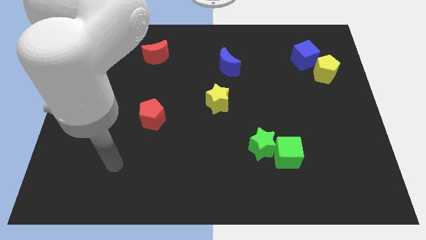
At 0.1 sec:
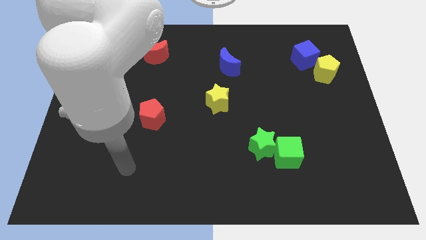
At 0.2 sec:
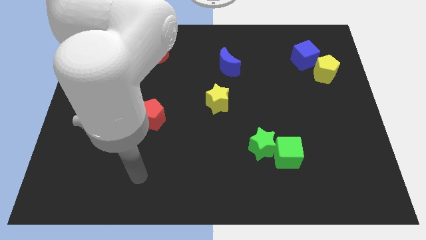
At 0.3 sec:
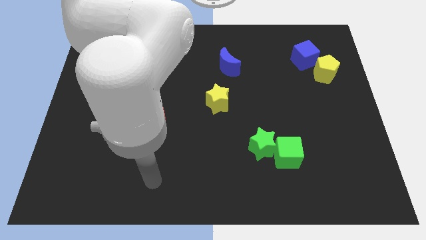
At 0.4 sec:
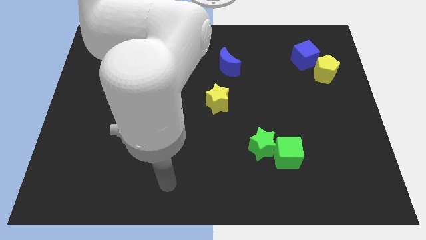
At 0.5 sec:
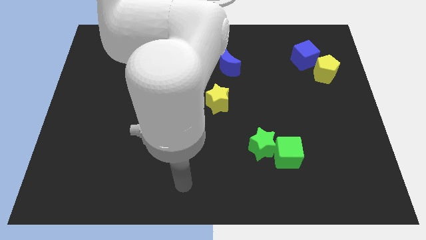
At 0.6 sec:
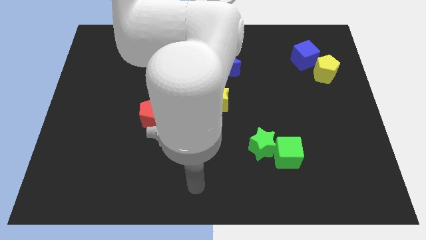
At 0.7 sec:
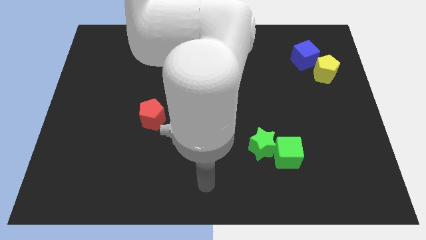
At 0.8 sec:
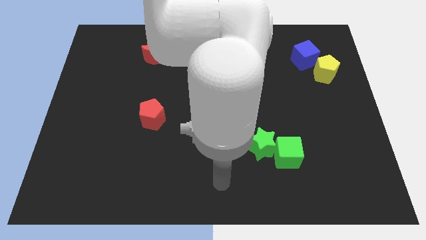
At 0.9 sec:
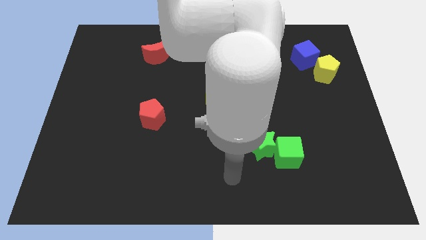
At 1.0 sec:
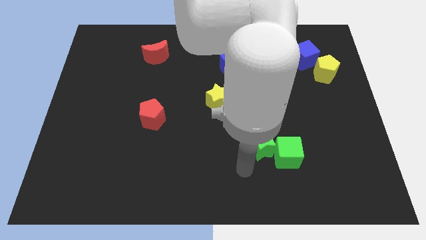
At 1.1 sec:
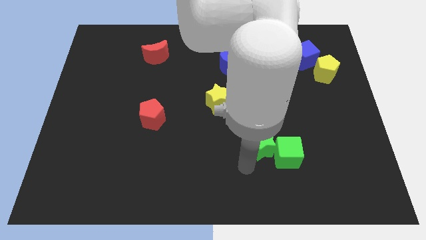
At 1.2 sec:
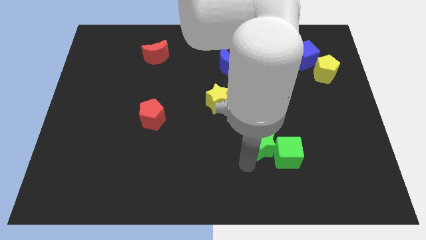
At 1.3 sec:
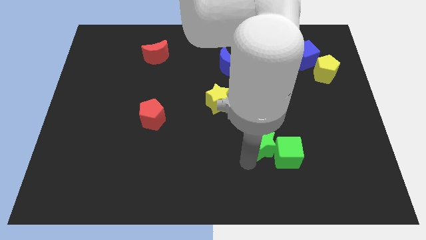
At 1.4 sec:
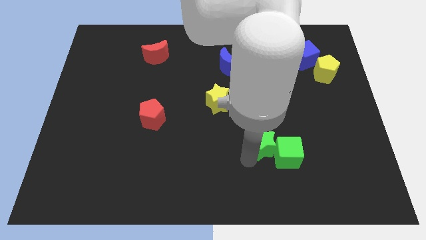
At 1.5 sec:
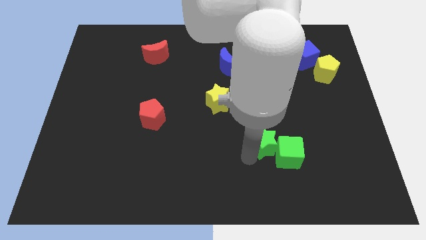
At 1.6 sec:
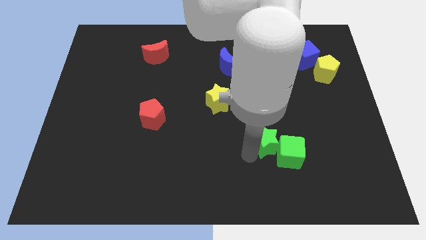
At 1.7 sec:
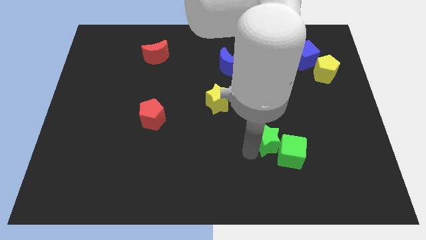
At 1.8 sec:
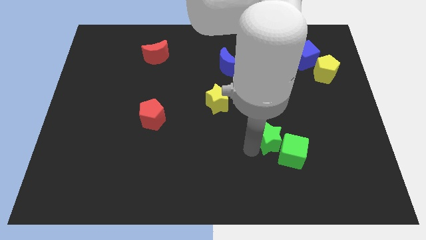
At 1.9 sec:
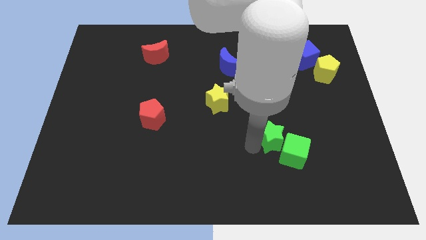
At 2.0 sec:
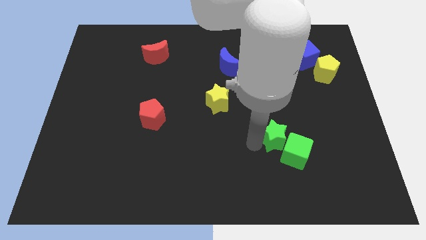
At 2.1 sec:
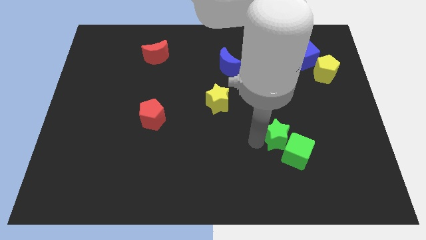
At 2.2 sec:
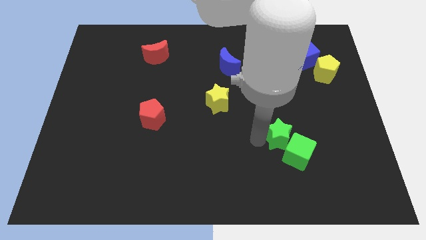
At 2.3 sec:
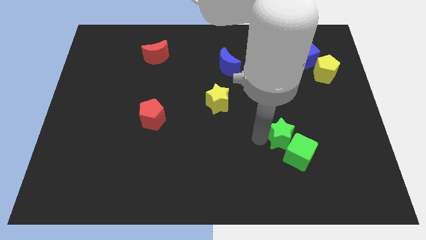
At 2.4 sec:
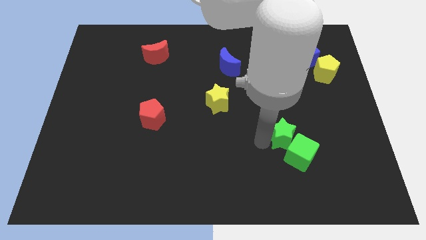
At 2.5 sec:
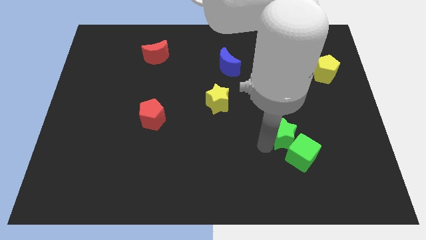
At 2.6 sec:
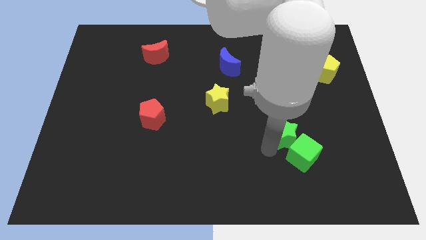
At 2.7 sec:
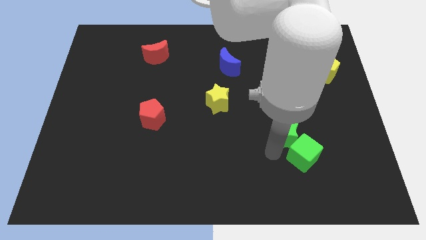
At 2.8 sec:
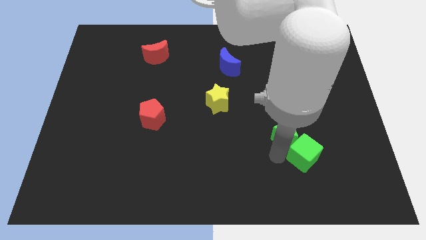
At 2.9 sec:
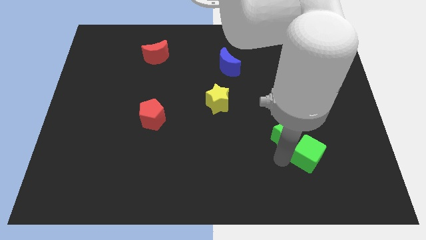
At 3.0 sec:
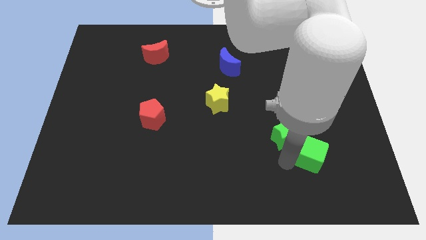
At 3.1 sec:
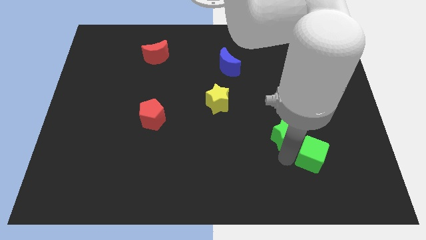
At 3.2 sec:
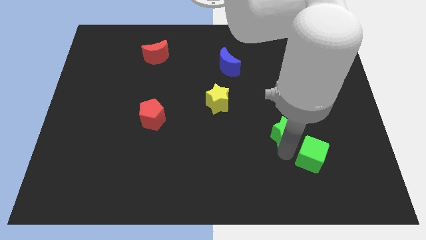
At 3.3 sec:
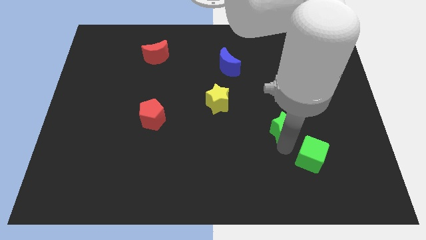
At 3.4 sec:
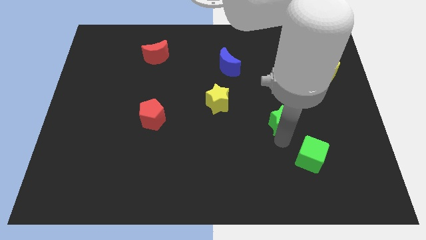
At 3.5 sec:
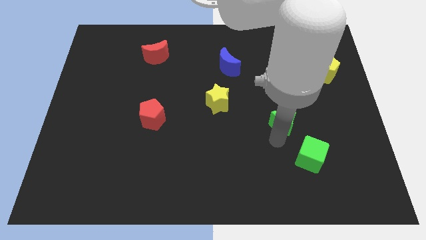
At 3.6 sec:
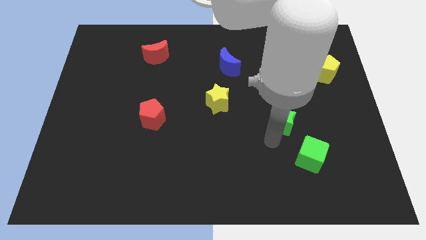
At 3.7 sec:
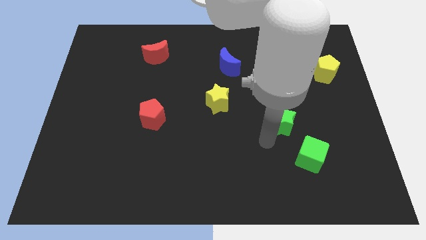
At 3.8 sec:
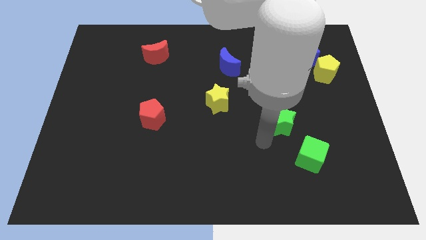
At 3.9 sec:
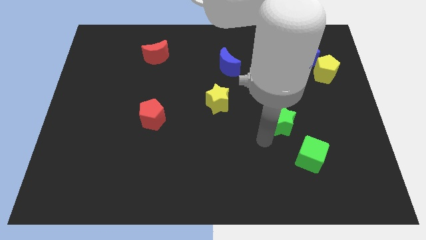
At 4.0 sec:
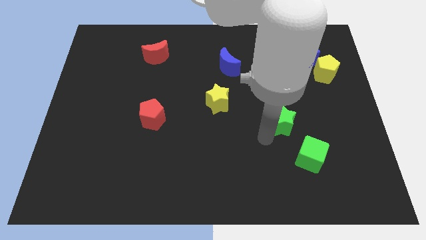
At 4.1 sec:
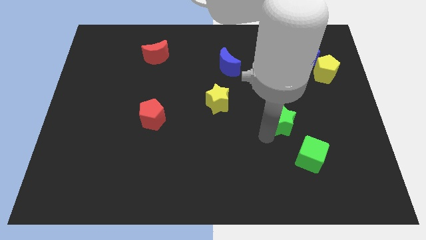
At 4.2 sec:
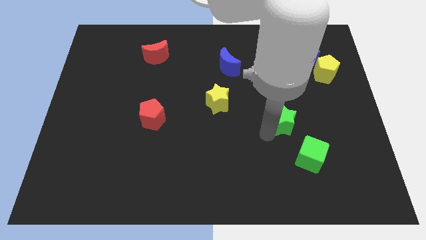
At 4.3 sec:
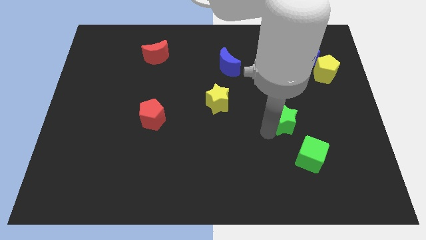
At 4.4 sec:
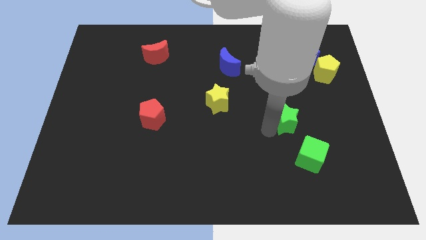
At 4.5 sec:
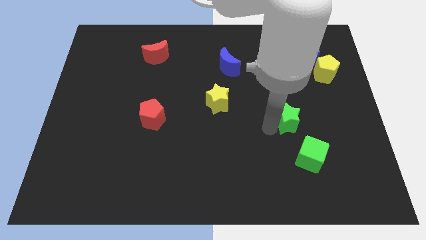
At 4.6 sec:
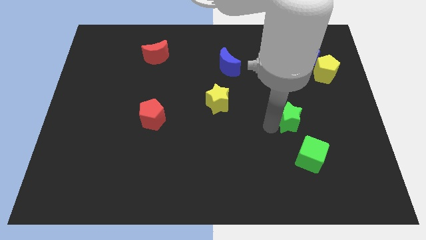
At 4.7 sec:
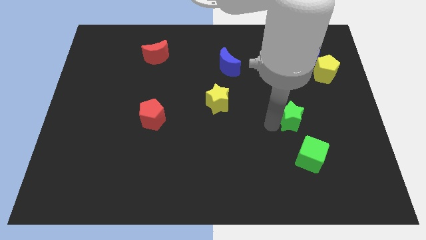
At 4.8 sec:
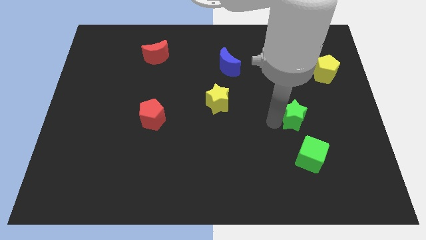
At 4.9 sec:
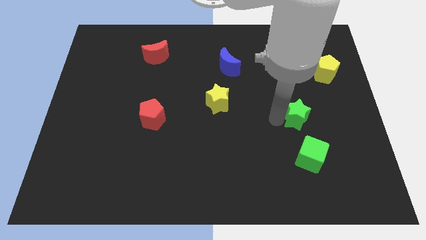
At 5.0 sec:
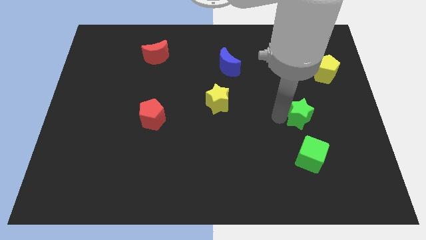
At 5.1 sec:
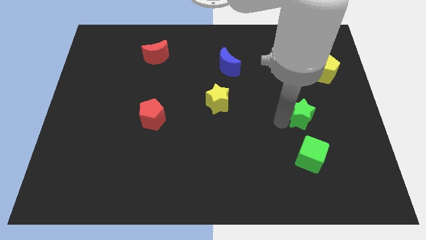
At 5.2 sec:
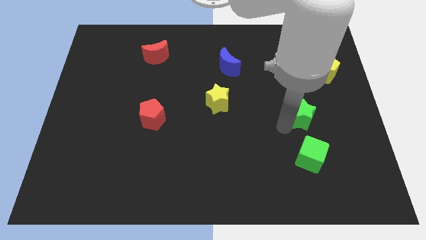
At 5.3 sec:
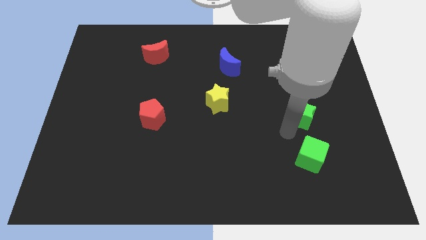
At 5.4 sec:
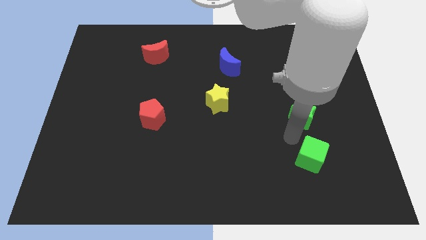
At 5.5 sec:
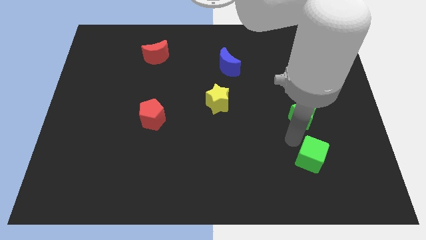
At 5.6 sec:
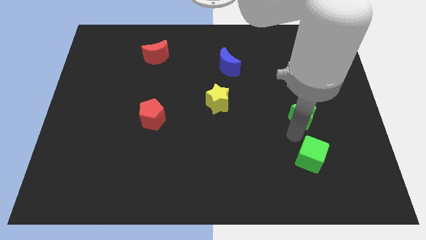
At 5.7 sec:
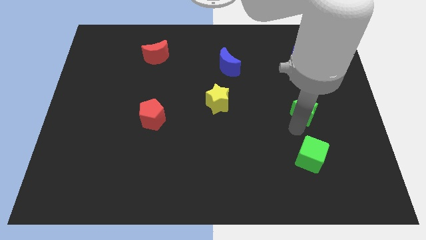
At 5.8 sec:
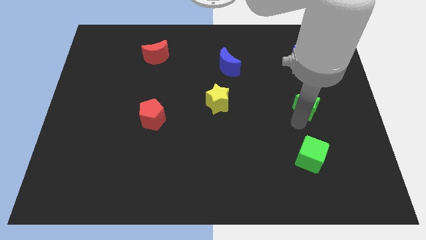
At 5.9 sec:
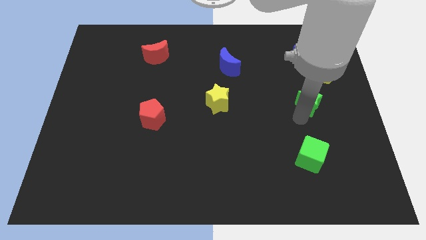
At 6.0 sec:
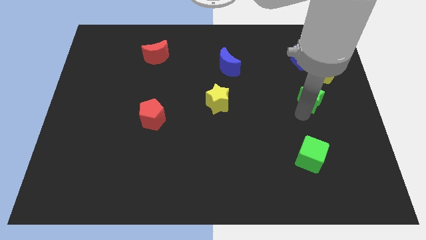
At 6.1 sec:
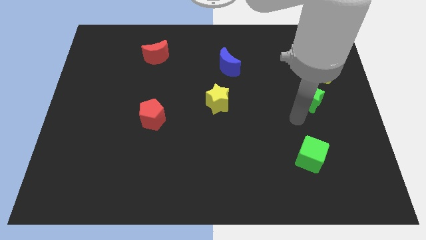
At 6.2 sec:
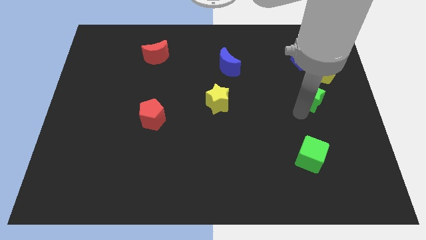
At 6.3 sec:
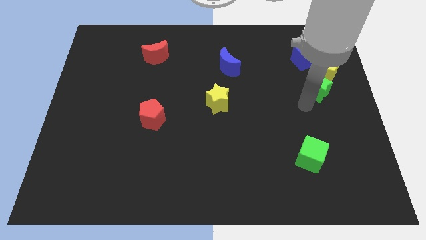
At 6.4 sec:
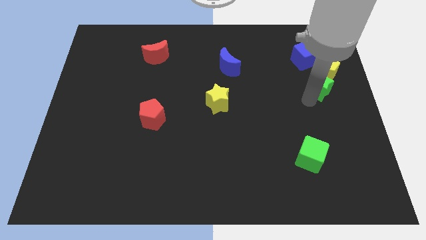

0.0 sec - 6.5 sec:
push the green star to the yellow pentagon

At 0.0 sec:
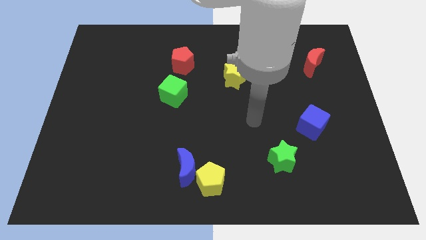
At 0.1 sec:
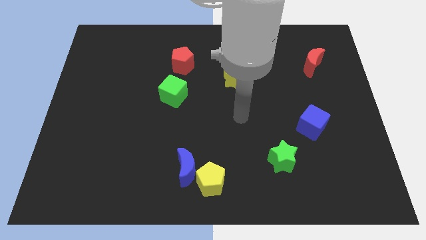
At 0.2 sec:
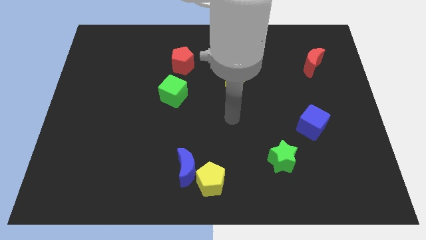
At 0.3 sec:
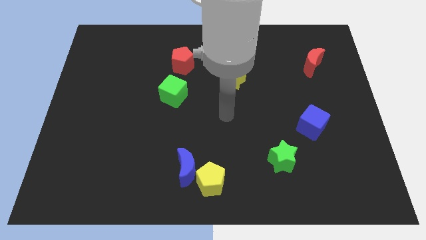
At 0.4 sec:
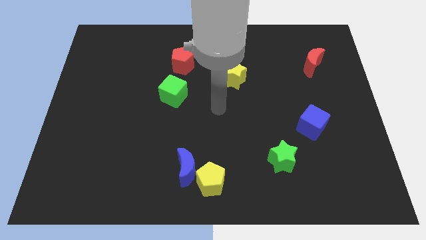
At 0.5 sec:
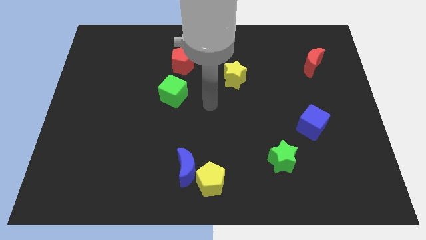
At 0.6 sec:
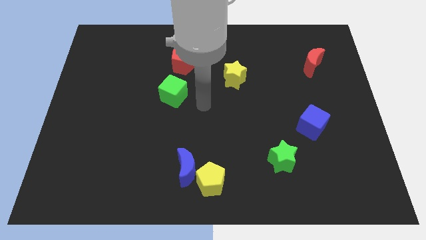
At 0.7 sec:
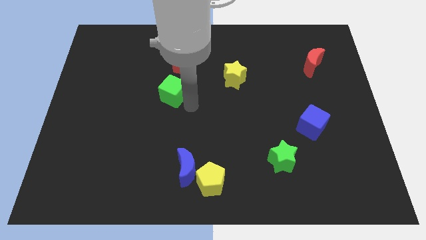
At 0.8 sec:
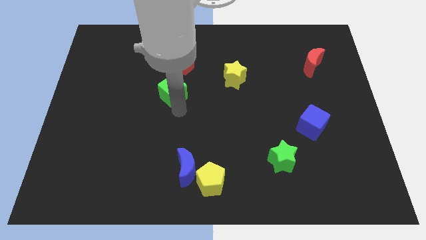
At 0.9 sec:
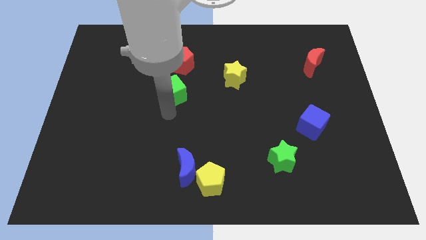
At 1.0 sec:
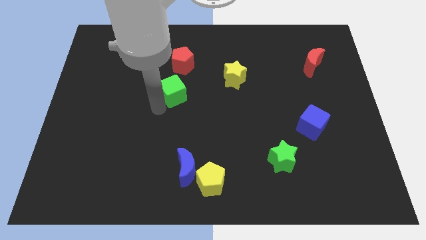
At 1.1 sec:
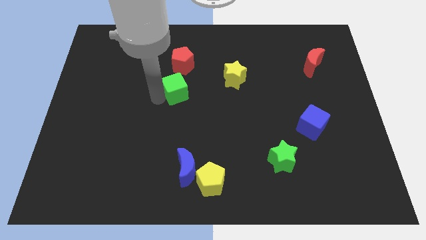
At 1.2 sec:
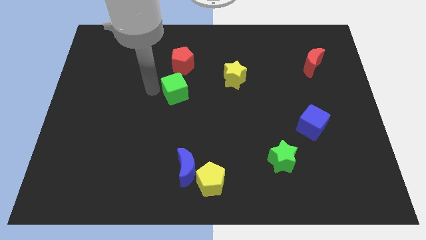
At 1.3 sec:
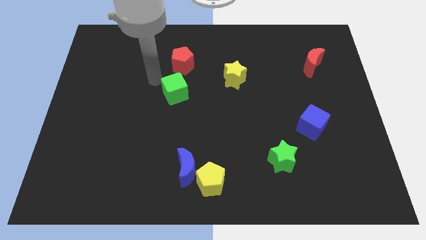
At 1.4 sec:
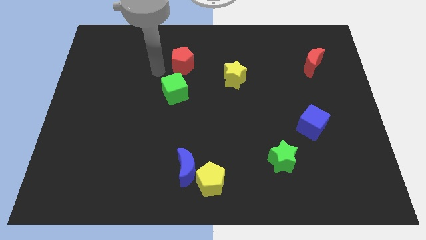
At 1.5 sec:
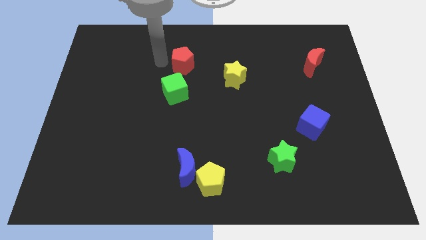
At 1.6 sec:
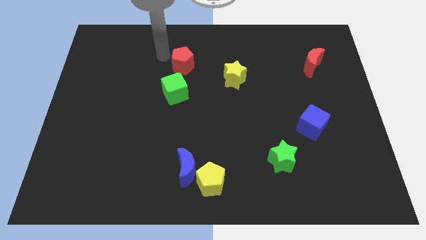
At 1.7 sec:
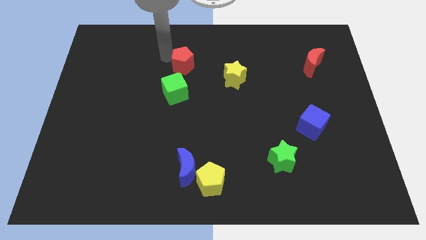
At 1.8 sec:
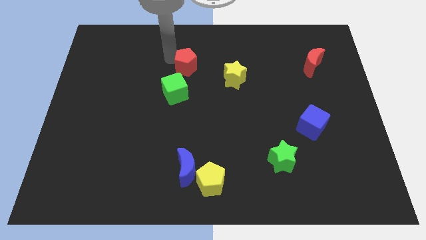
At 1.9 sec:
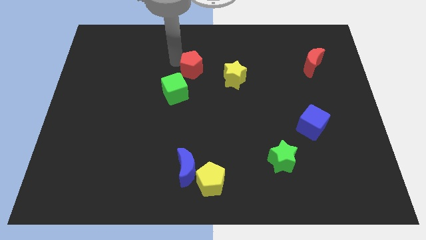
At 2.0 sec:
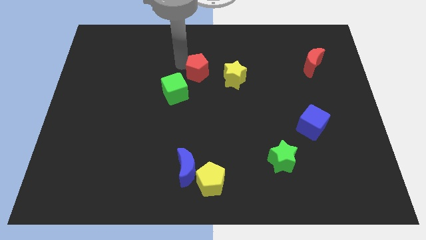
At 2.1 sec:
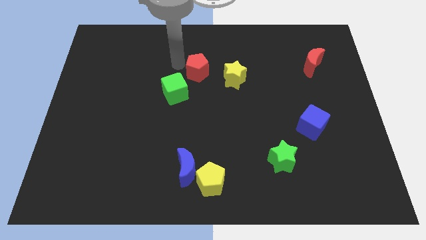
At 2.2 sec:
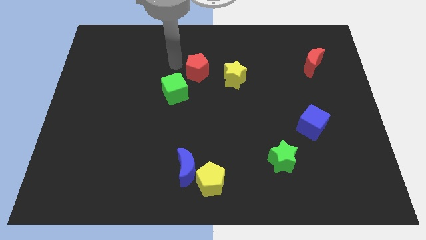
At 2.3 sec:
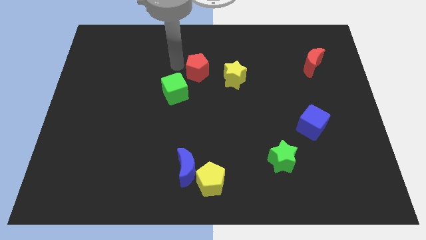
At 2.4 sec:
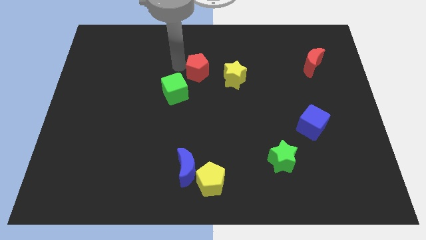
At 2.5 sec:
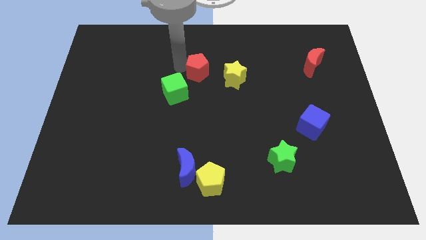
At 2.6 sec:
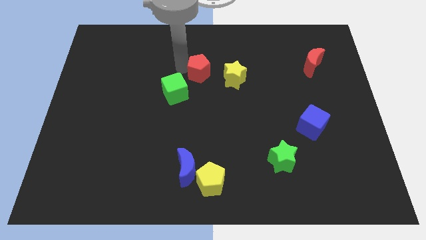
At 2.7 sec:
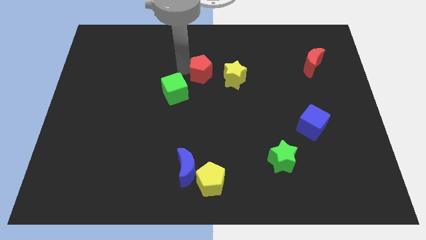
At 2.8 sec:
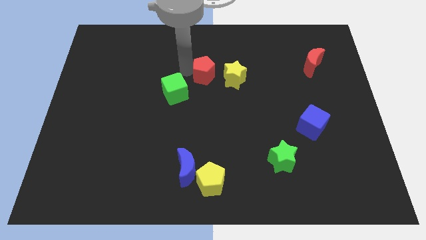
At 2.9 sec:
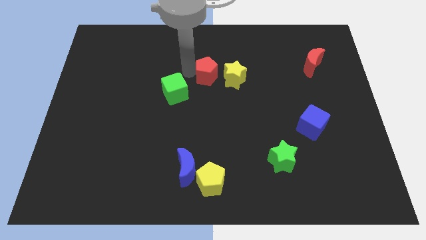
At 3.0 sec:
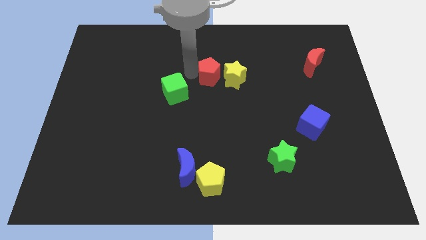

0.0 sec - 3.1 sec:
move the red pentagon close to the yellow star
